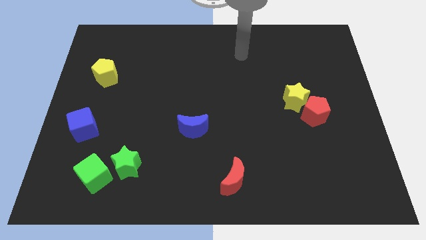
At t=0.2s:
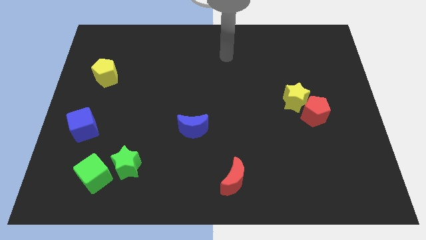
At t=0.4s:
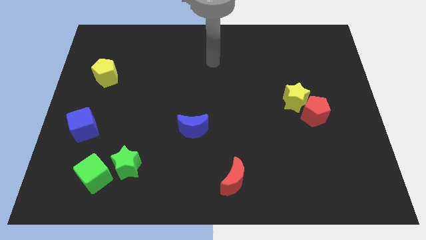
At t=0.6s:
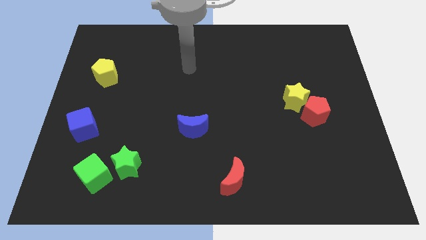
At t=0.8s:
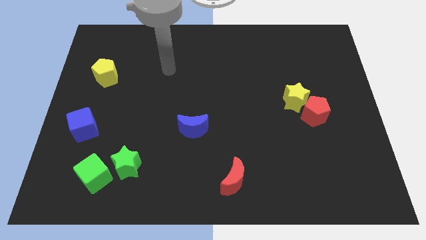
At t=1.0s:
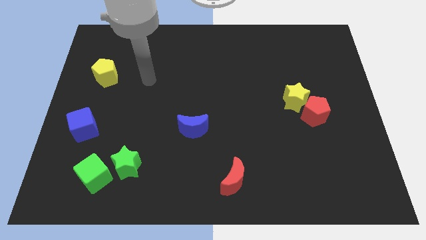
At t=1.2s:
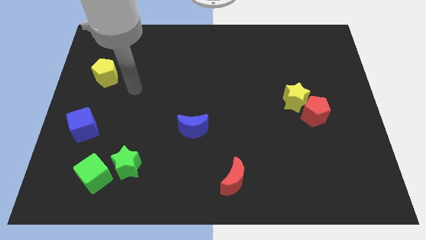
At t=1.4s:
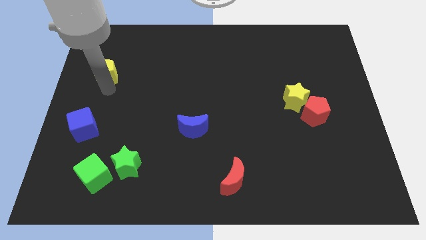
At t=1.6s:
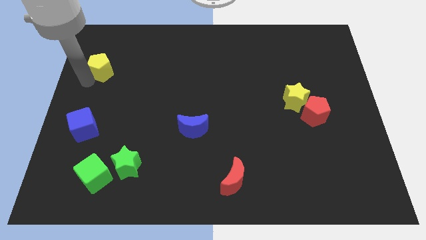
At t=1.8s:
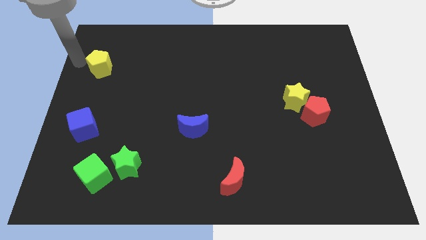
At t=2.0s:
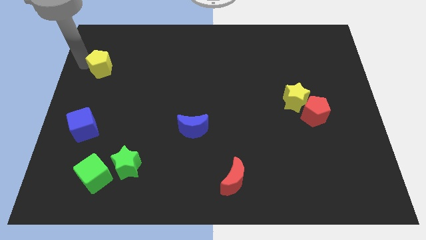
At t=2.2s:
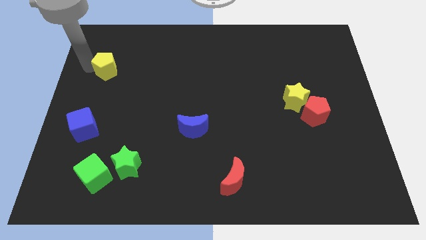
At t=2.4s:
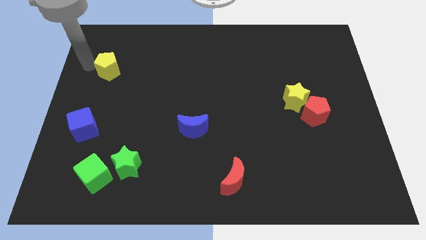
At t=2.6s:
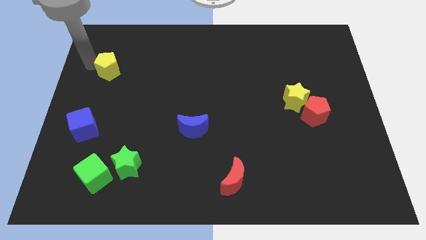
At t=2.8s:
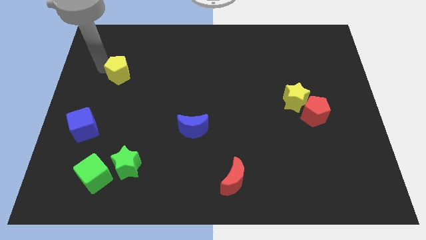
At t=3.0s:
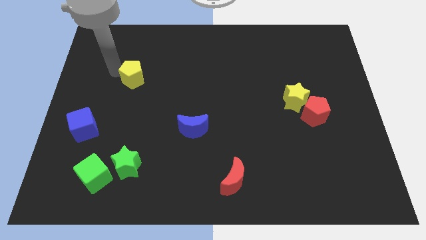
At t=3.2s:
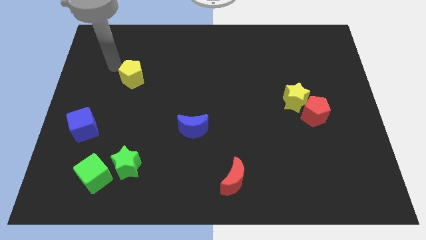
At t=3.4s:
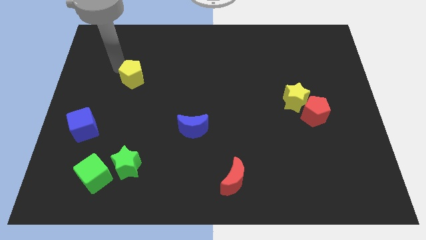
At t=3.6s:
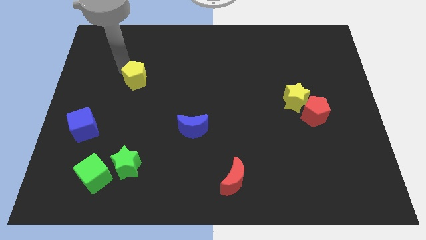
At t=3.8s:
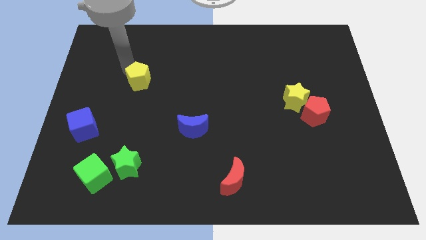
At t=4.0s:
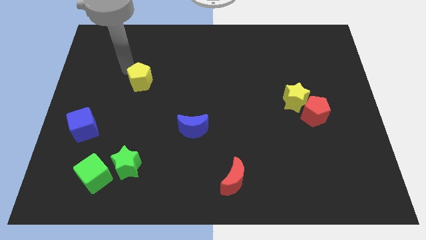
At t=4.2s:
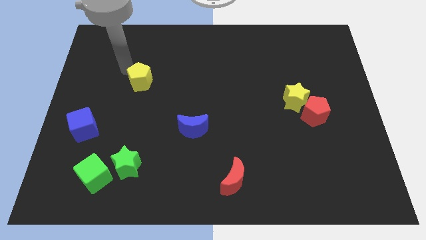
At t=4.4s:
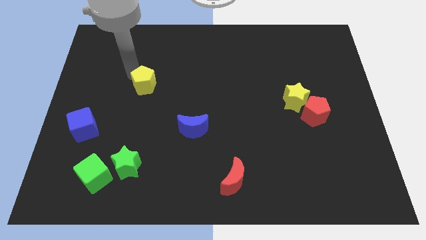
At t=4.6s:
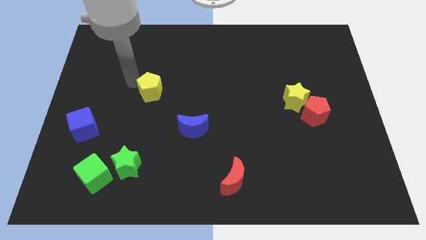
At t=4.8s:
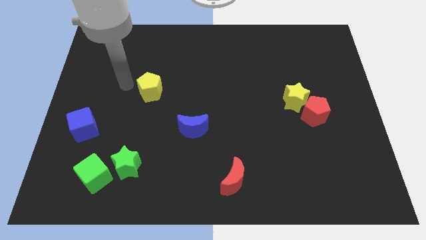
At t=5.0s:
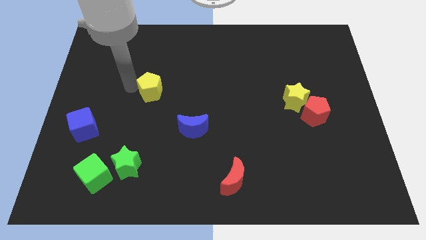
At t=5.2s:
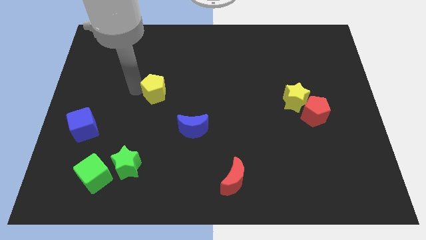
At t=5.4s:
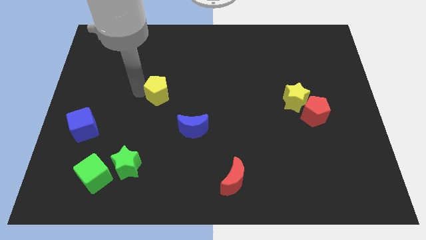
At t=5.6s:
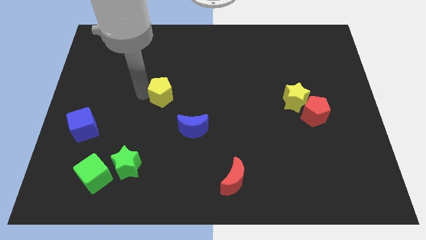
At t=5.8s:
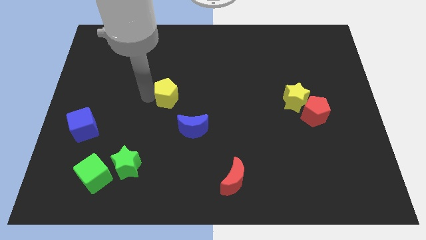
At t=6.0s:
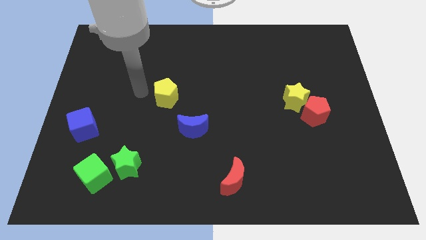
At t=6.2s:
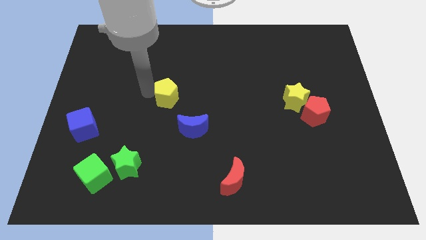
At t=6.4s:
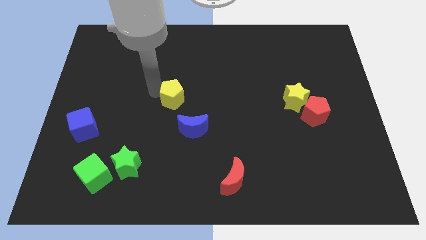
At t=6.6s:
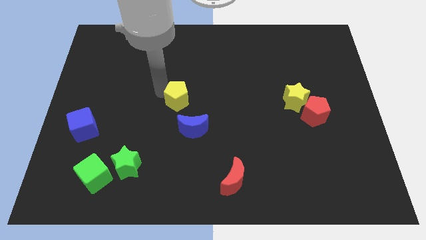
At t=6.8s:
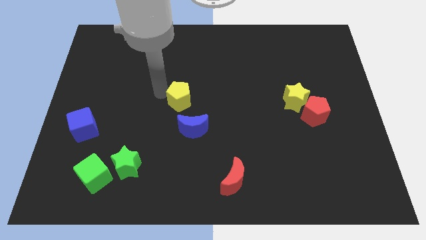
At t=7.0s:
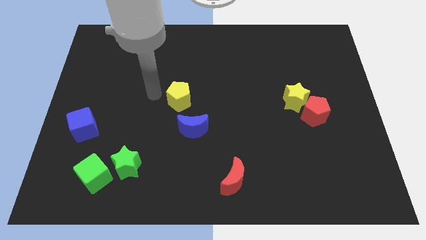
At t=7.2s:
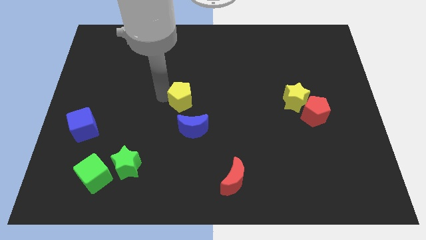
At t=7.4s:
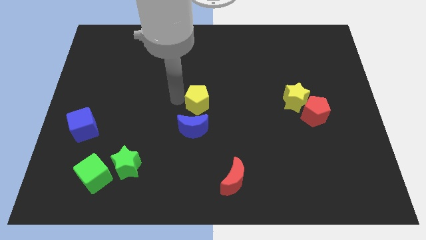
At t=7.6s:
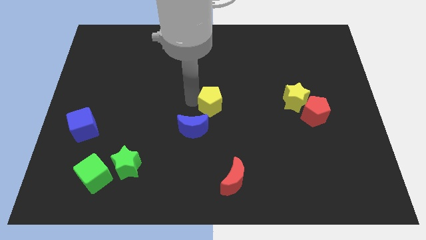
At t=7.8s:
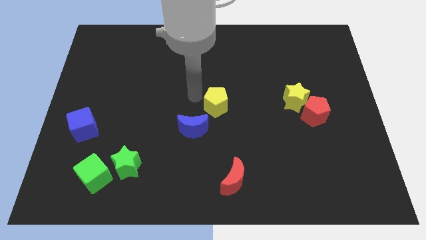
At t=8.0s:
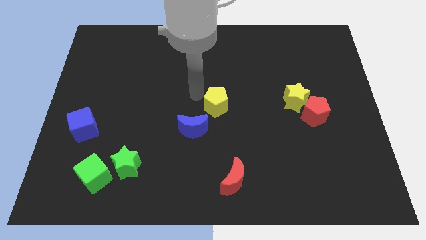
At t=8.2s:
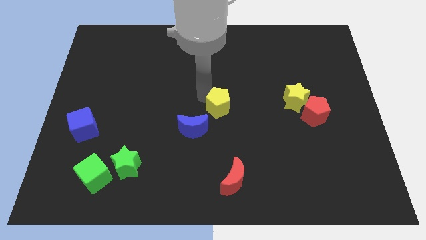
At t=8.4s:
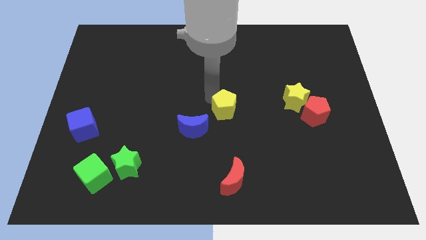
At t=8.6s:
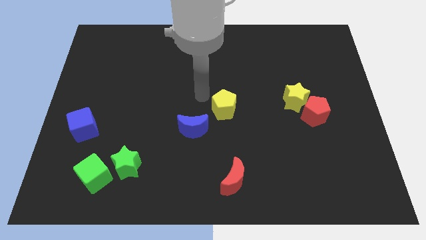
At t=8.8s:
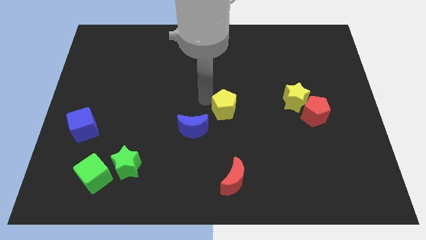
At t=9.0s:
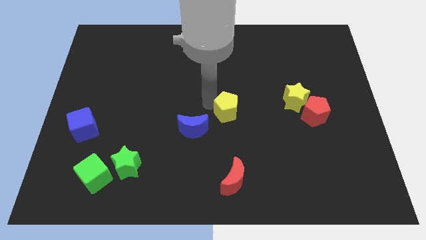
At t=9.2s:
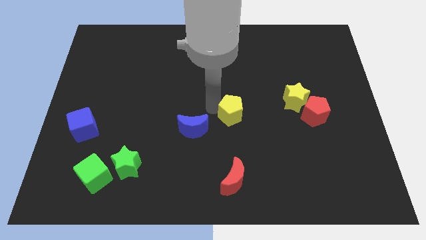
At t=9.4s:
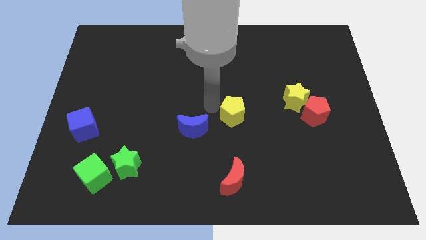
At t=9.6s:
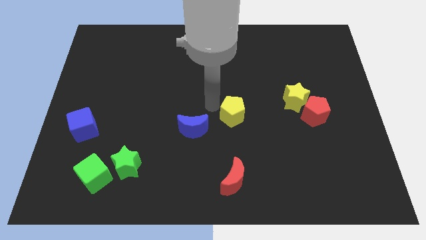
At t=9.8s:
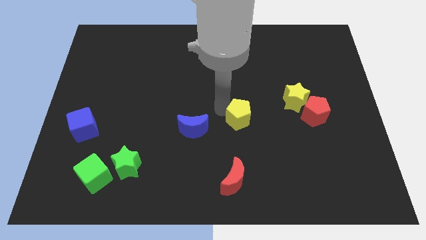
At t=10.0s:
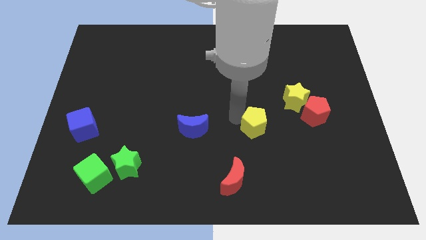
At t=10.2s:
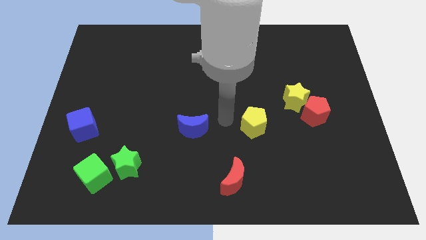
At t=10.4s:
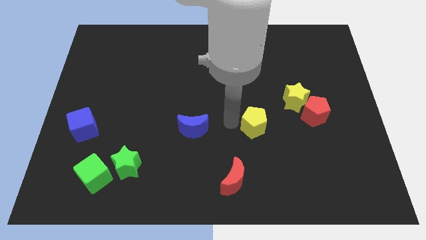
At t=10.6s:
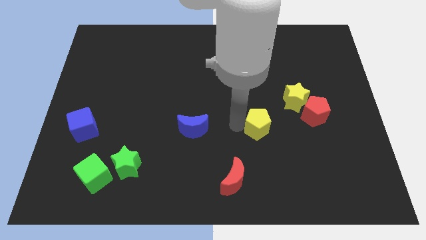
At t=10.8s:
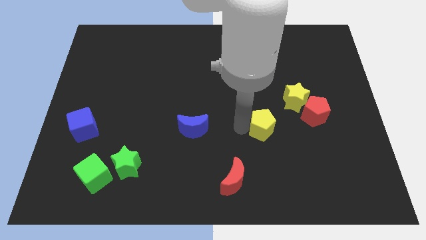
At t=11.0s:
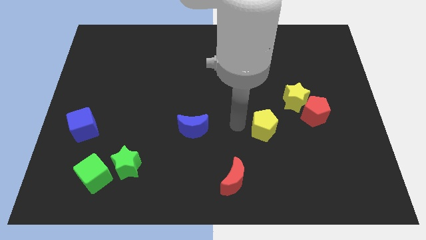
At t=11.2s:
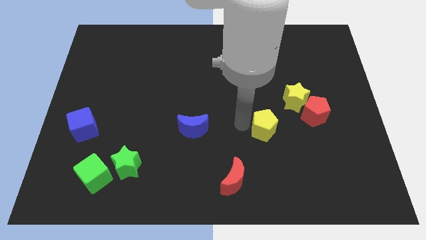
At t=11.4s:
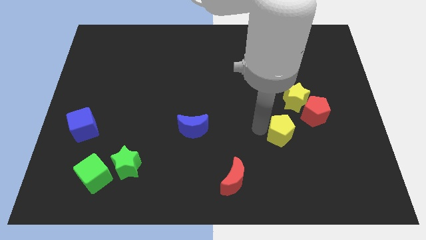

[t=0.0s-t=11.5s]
push the yellow pentagon below the yellow star

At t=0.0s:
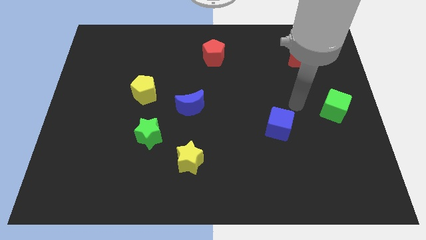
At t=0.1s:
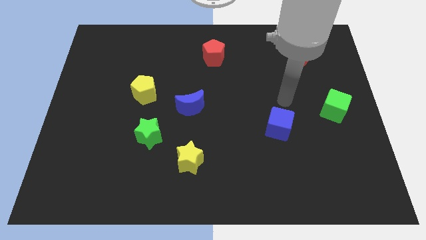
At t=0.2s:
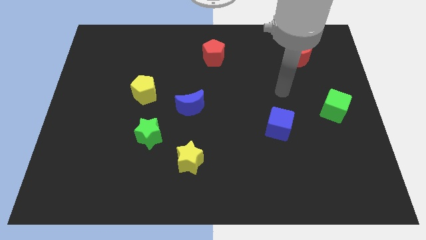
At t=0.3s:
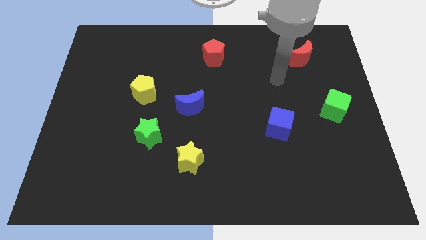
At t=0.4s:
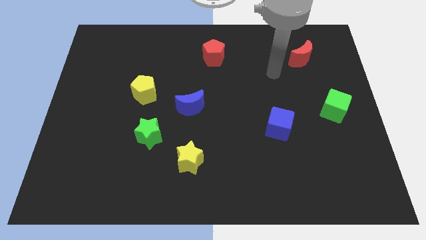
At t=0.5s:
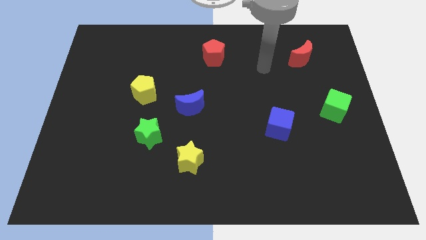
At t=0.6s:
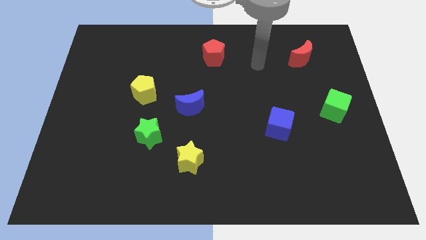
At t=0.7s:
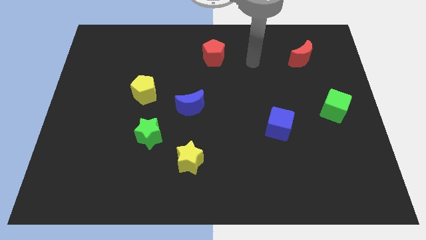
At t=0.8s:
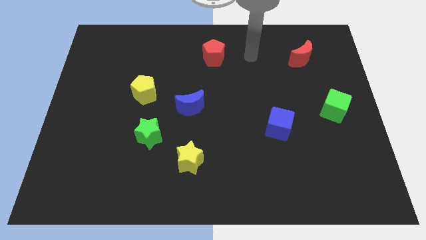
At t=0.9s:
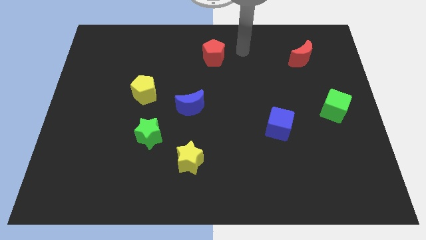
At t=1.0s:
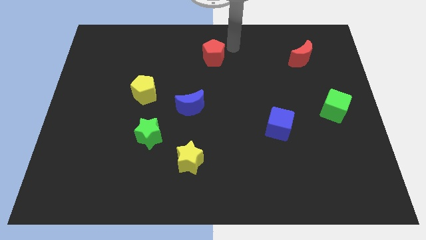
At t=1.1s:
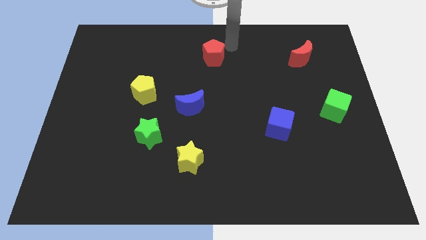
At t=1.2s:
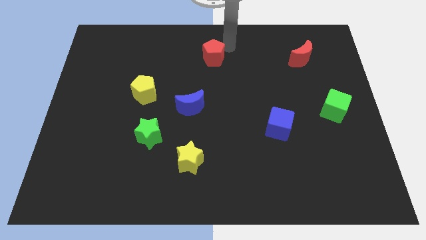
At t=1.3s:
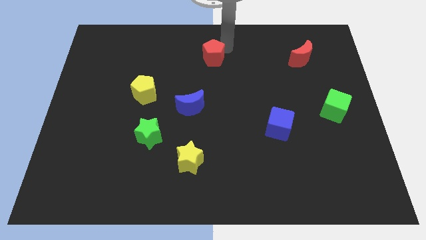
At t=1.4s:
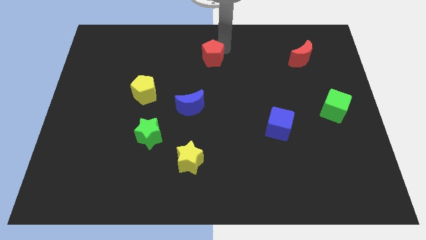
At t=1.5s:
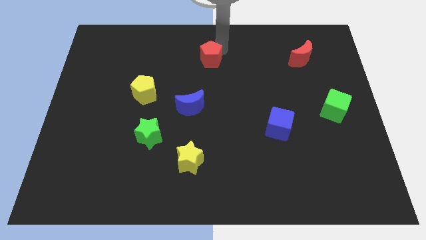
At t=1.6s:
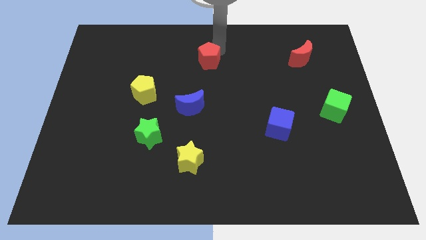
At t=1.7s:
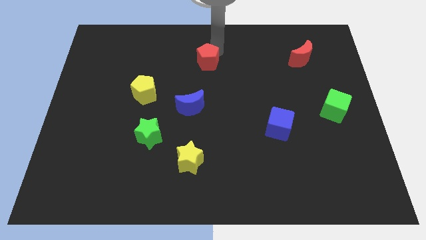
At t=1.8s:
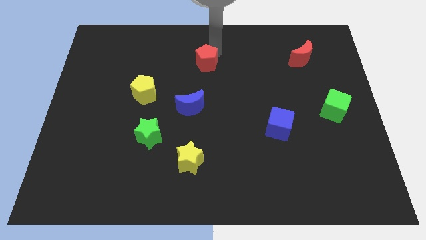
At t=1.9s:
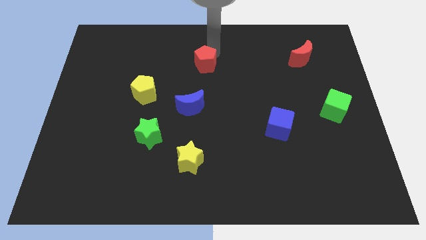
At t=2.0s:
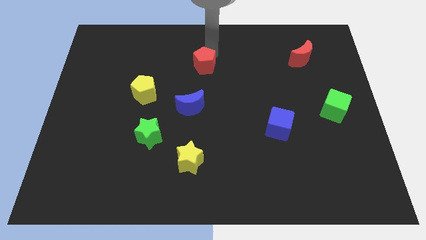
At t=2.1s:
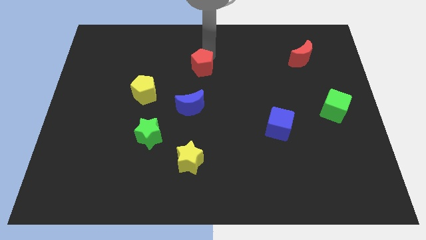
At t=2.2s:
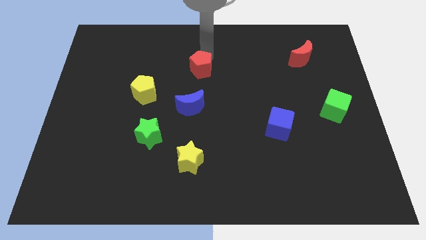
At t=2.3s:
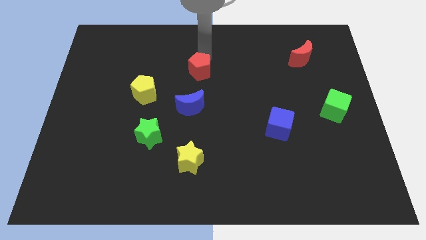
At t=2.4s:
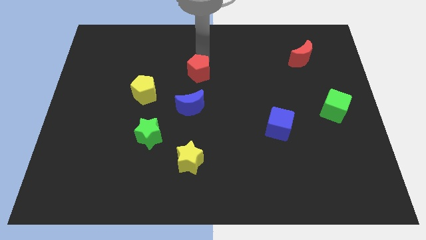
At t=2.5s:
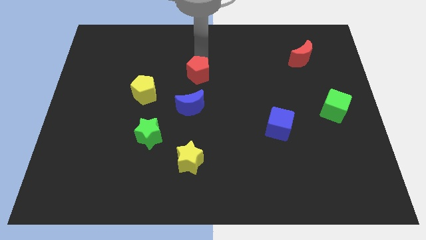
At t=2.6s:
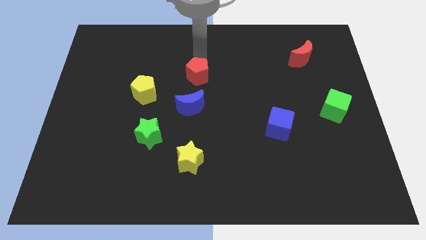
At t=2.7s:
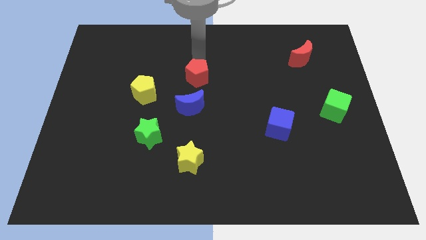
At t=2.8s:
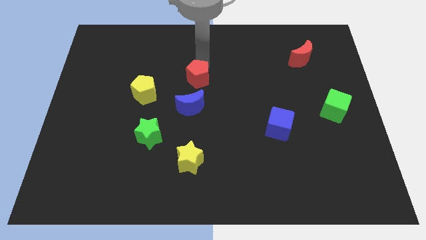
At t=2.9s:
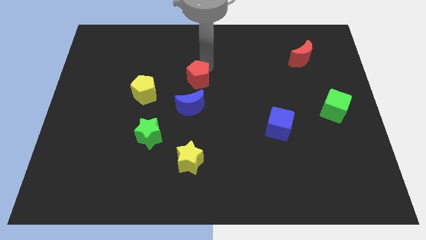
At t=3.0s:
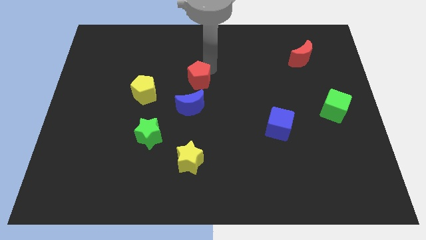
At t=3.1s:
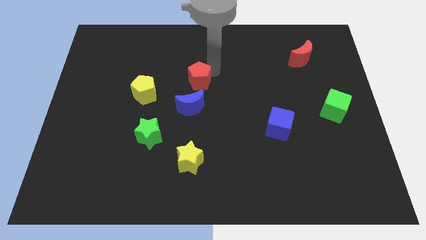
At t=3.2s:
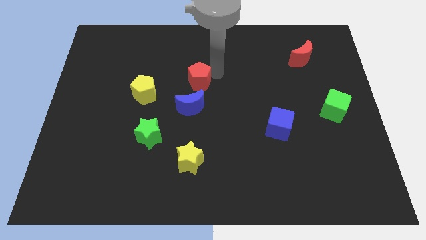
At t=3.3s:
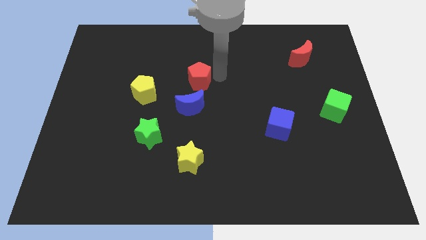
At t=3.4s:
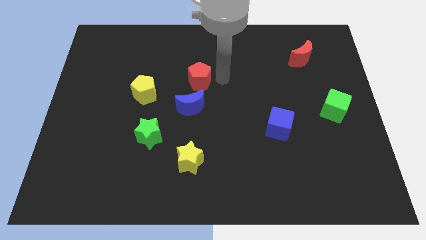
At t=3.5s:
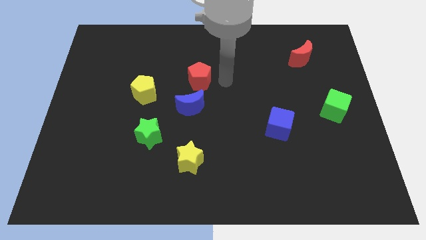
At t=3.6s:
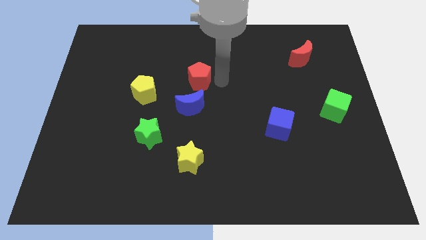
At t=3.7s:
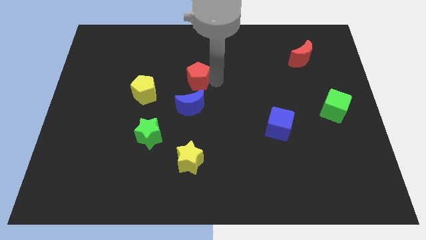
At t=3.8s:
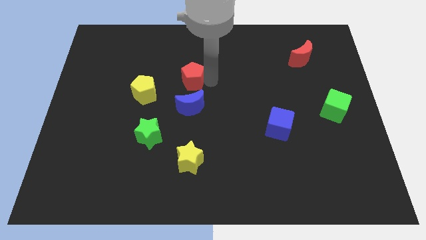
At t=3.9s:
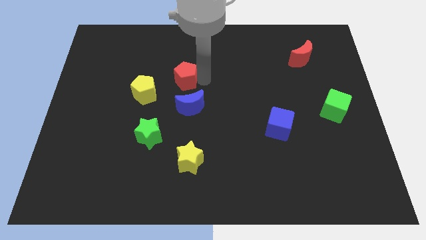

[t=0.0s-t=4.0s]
slide the red pentagon diagonally up and to the left of the blue moon
